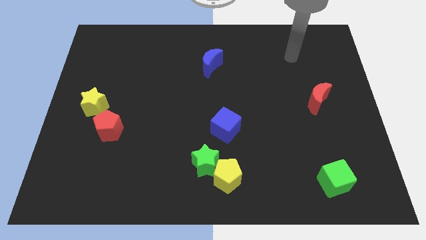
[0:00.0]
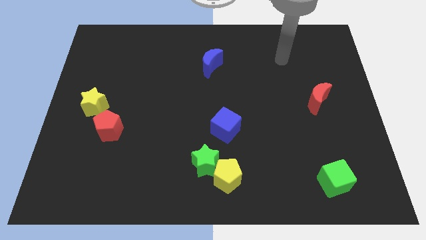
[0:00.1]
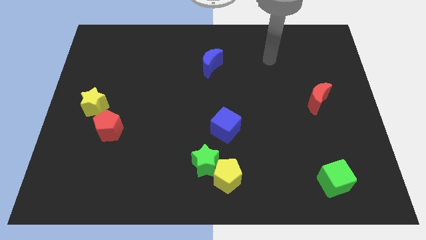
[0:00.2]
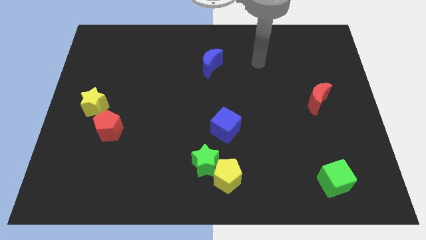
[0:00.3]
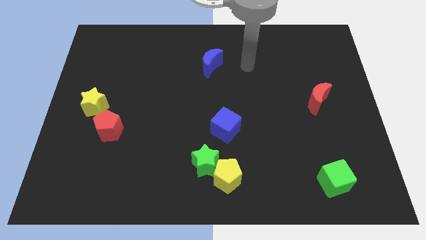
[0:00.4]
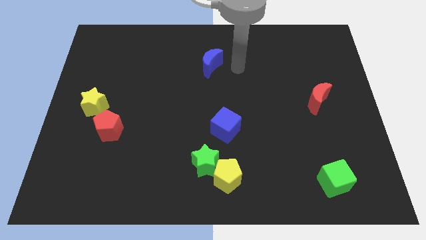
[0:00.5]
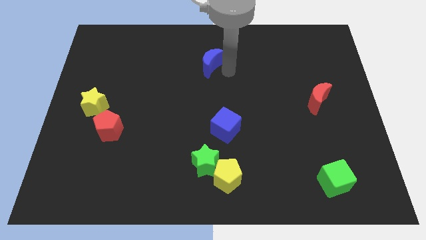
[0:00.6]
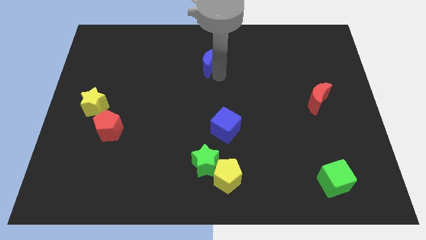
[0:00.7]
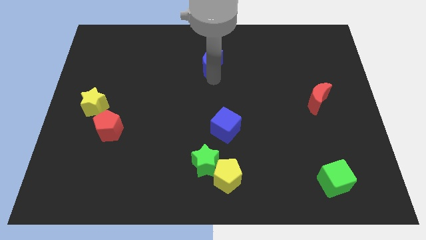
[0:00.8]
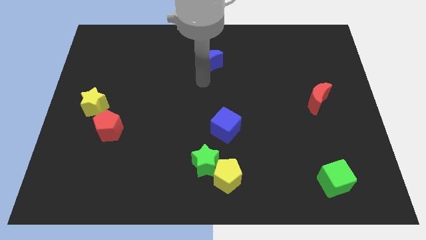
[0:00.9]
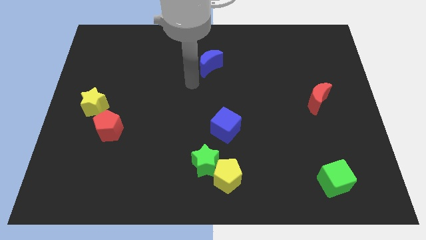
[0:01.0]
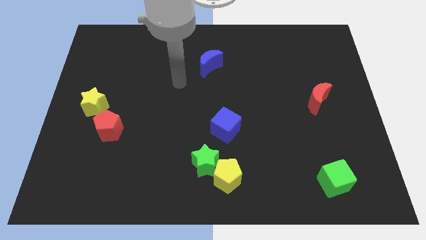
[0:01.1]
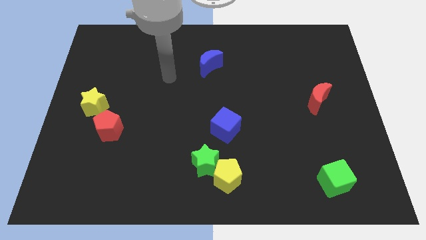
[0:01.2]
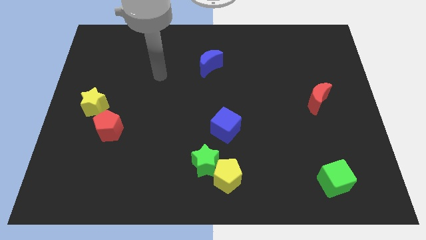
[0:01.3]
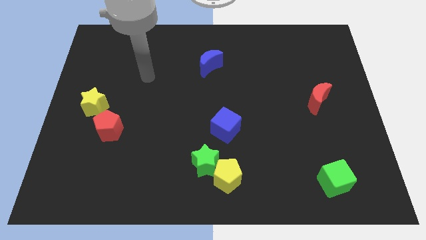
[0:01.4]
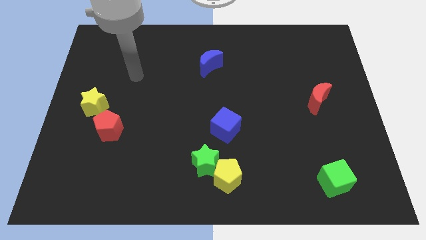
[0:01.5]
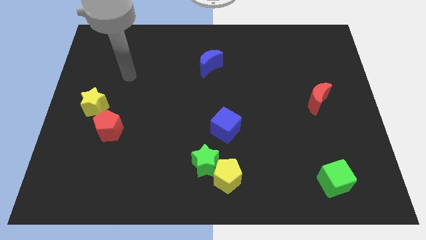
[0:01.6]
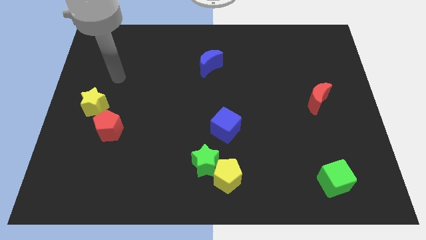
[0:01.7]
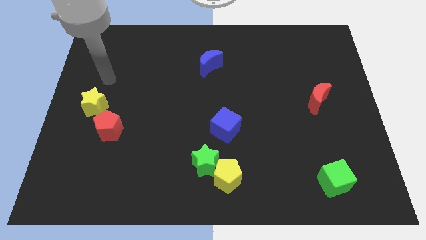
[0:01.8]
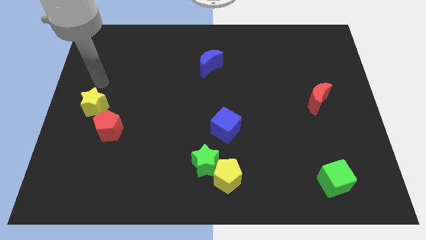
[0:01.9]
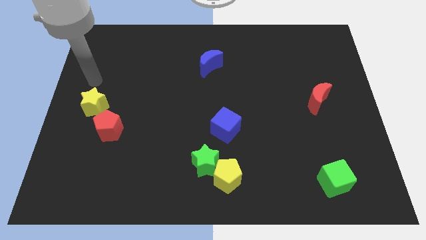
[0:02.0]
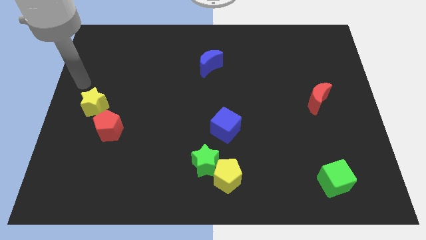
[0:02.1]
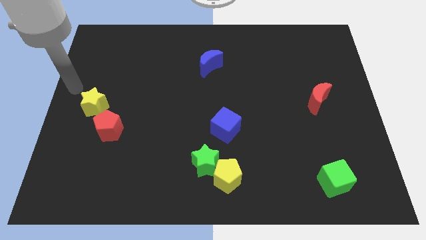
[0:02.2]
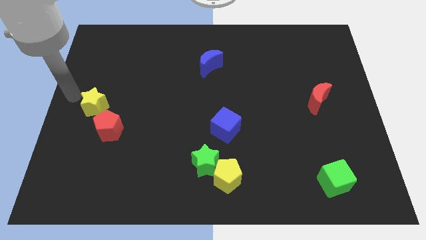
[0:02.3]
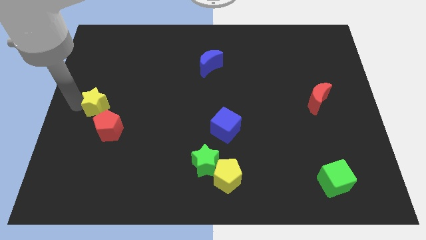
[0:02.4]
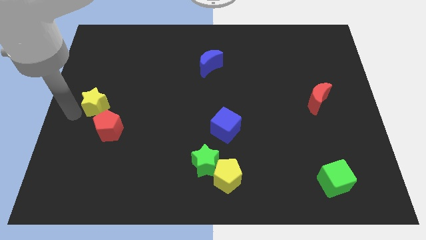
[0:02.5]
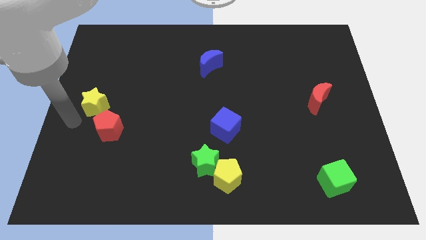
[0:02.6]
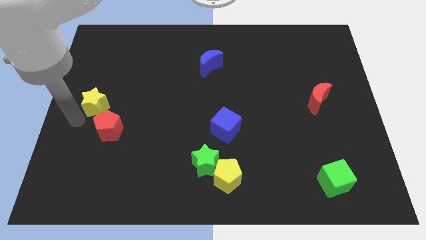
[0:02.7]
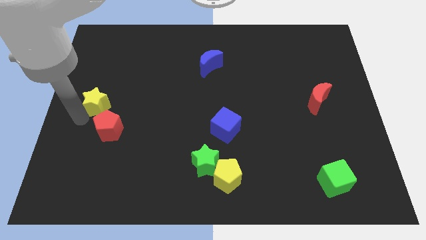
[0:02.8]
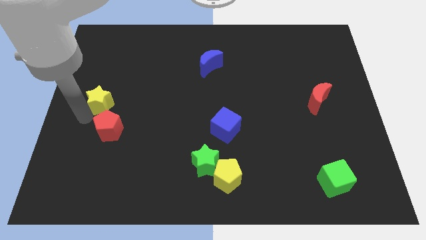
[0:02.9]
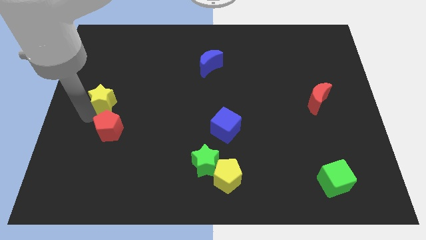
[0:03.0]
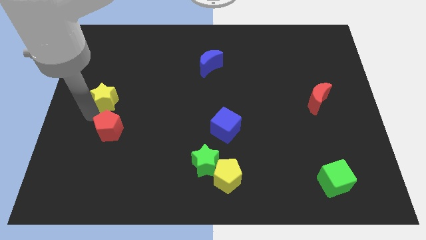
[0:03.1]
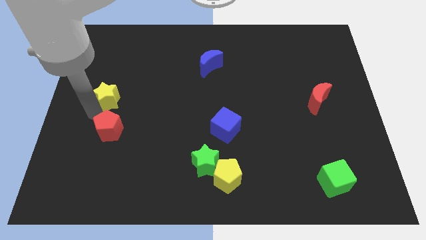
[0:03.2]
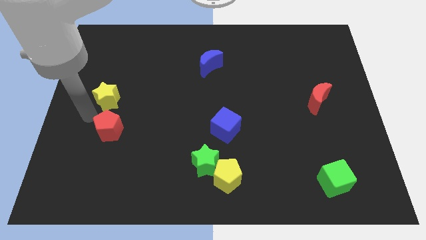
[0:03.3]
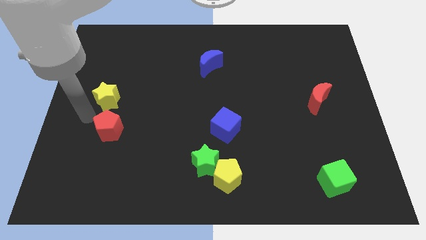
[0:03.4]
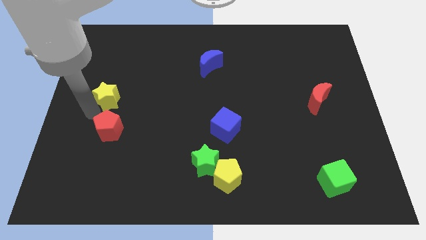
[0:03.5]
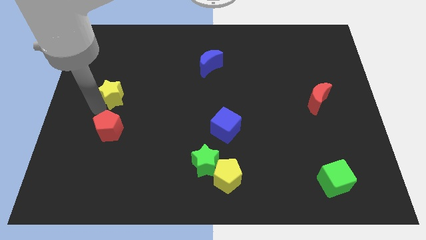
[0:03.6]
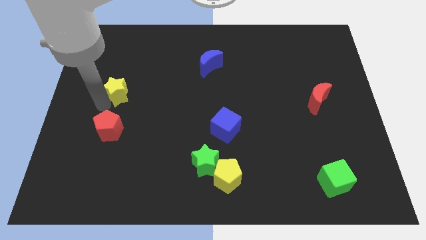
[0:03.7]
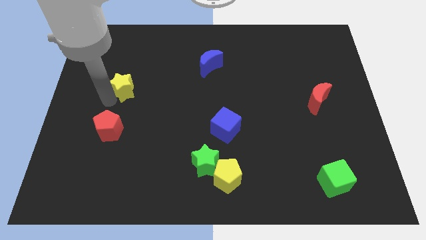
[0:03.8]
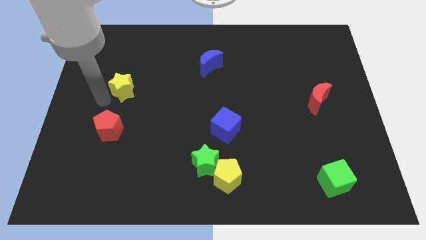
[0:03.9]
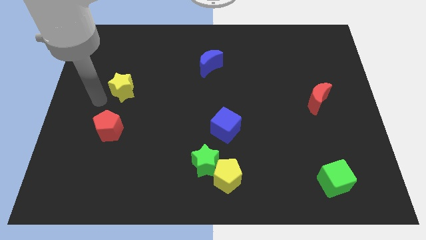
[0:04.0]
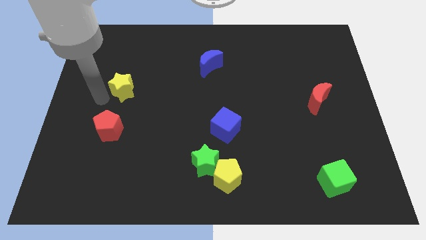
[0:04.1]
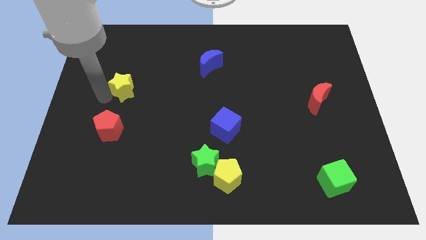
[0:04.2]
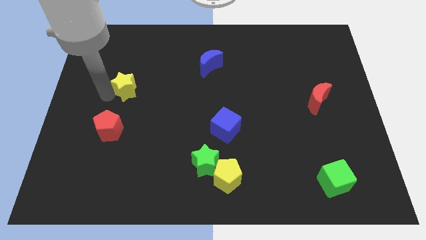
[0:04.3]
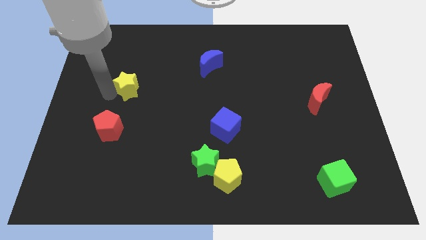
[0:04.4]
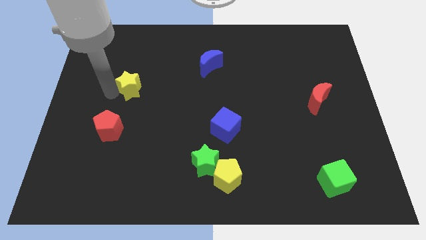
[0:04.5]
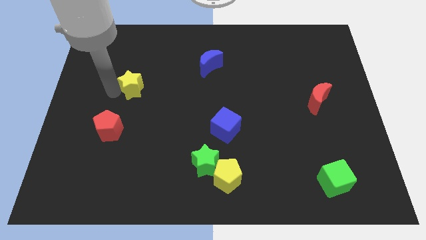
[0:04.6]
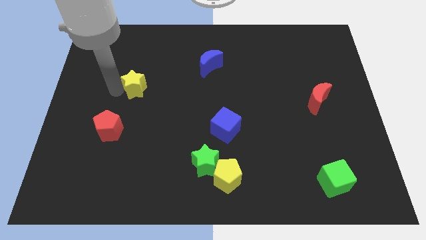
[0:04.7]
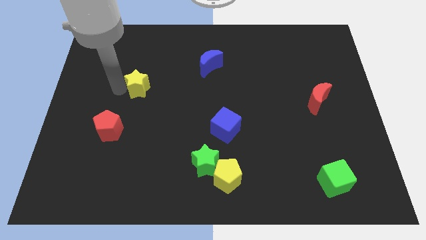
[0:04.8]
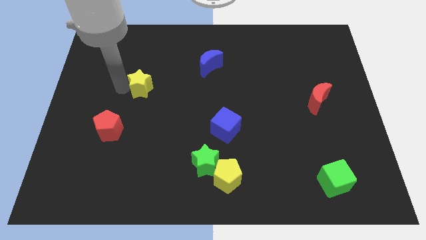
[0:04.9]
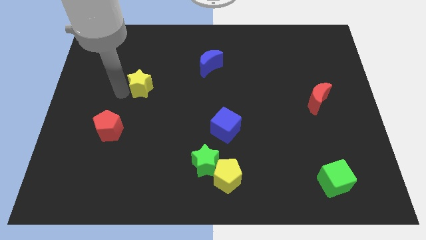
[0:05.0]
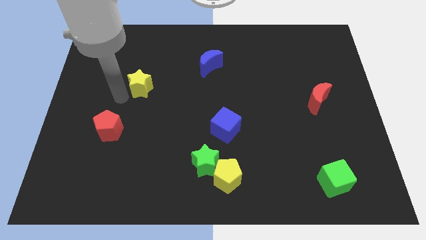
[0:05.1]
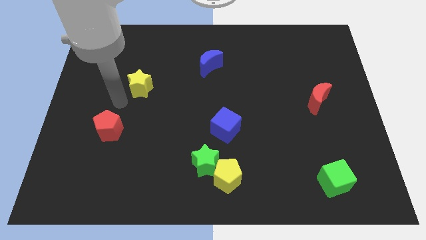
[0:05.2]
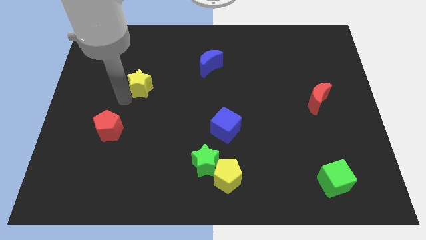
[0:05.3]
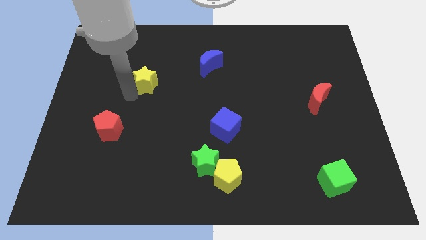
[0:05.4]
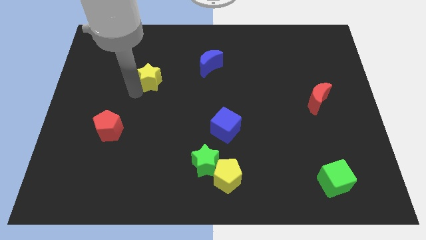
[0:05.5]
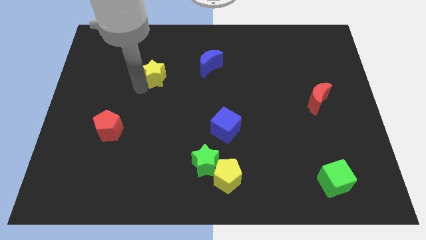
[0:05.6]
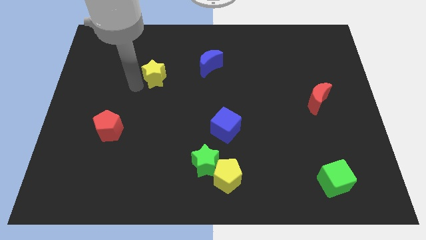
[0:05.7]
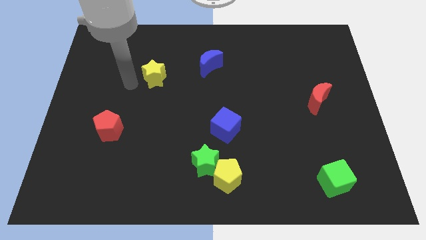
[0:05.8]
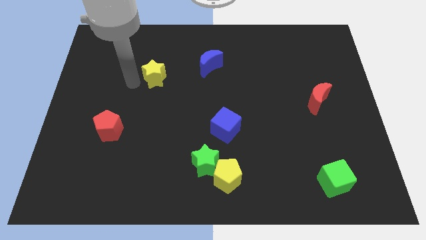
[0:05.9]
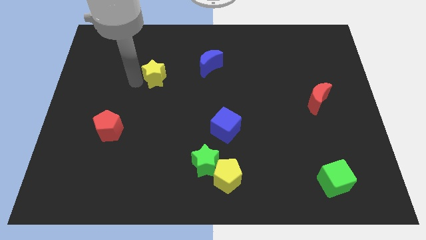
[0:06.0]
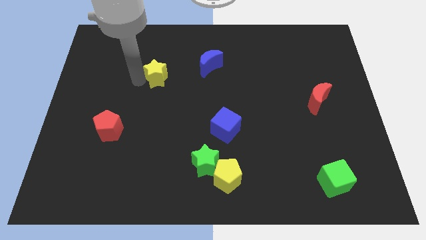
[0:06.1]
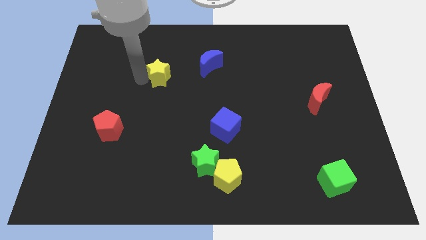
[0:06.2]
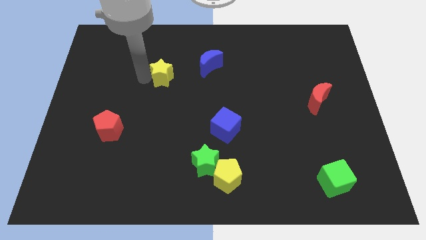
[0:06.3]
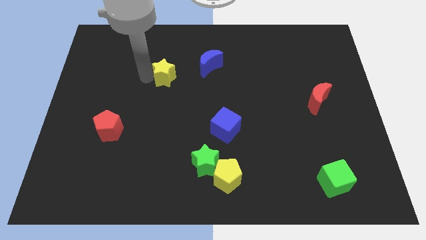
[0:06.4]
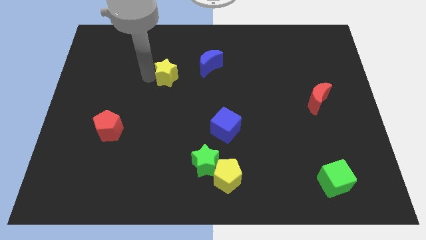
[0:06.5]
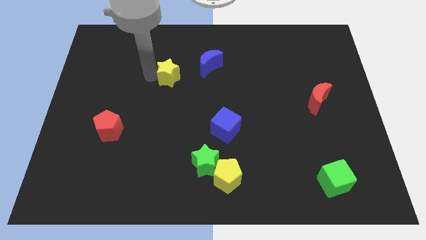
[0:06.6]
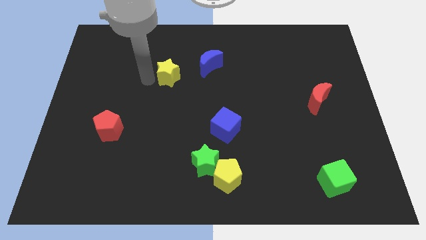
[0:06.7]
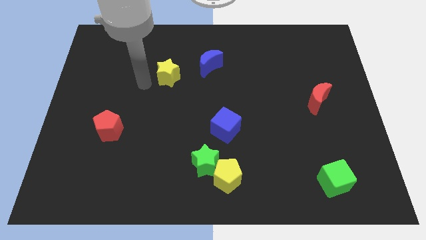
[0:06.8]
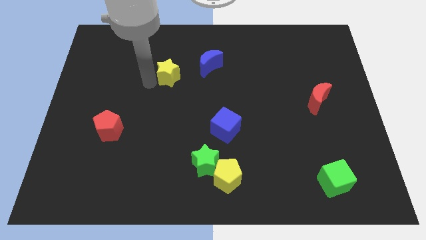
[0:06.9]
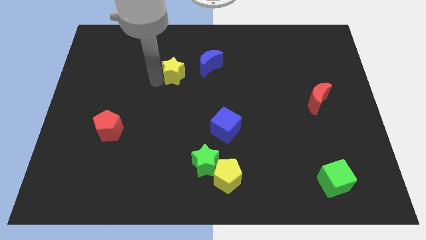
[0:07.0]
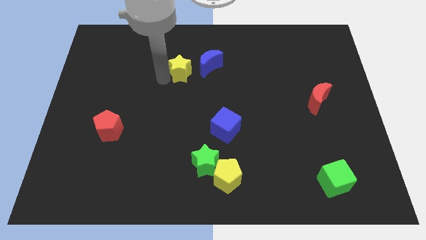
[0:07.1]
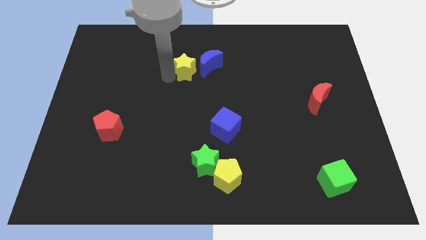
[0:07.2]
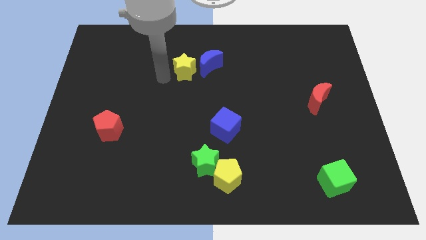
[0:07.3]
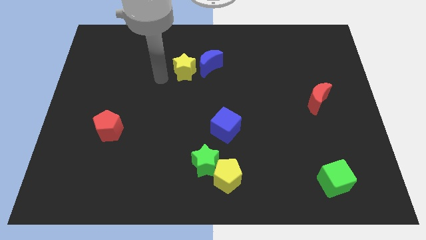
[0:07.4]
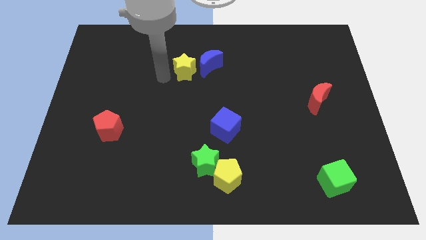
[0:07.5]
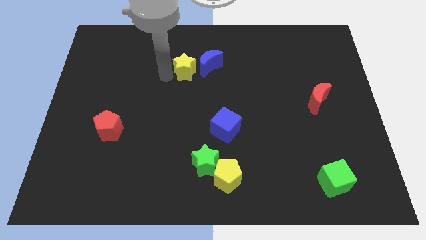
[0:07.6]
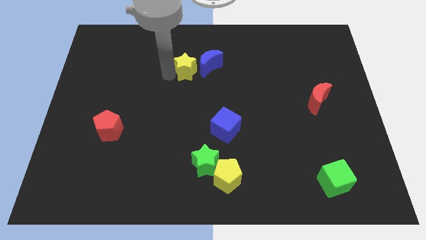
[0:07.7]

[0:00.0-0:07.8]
push the yellow star next to the blue moon
